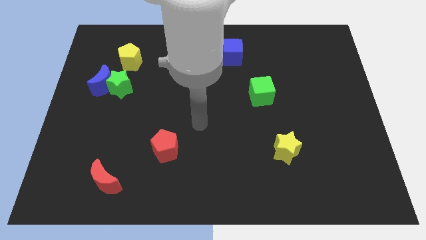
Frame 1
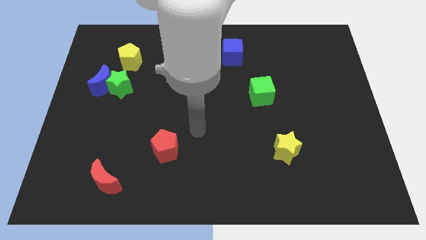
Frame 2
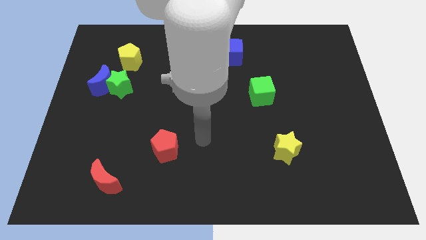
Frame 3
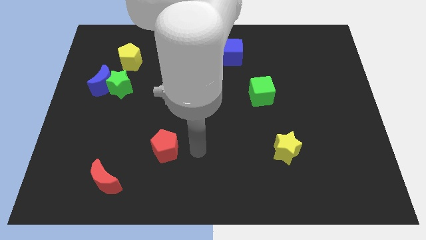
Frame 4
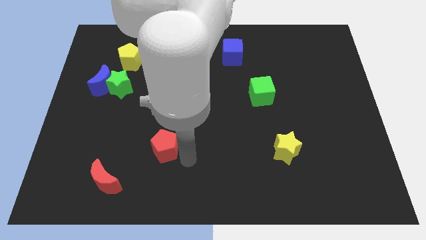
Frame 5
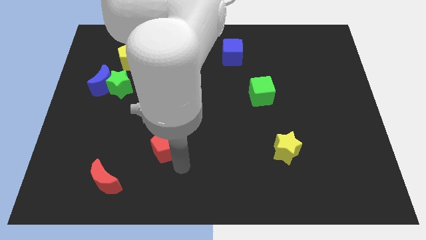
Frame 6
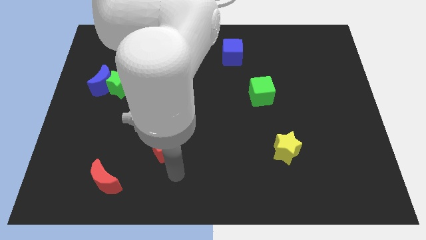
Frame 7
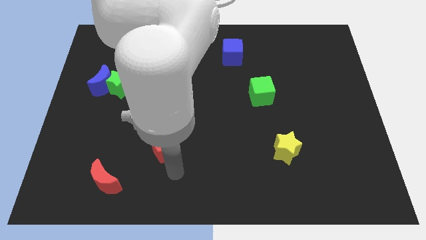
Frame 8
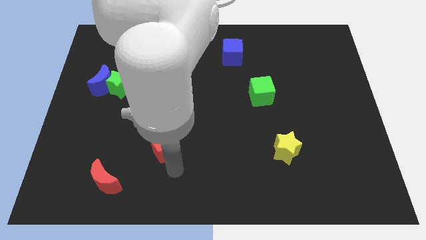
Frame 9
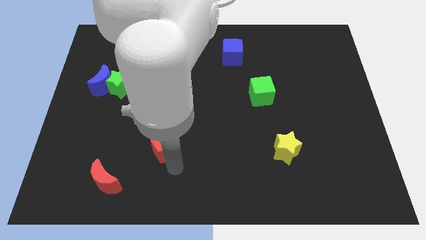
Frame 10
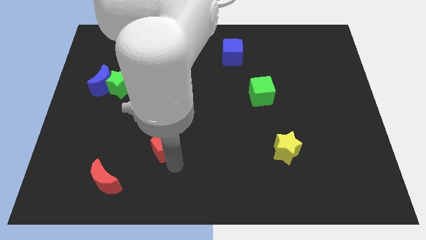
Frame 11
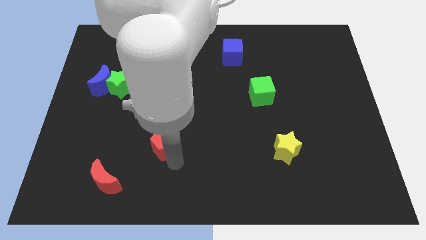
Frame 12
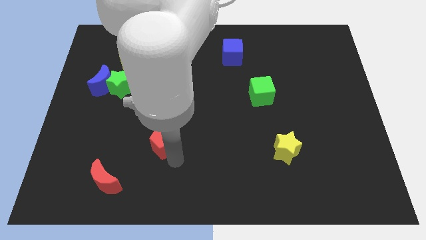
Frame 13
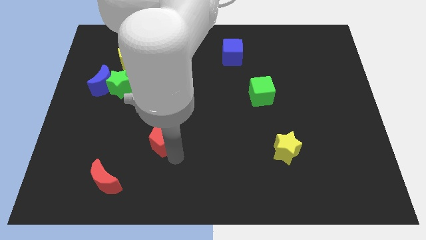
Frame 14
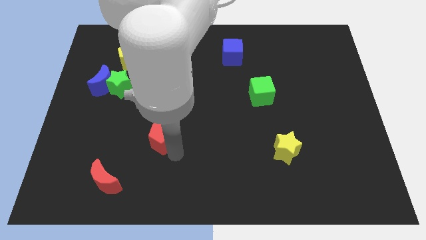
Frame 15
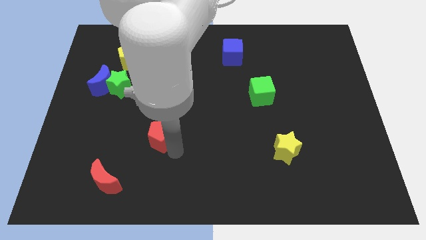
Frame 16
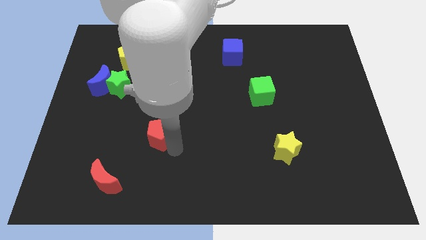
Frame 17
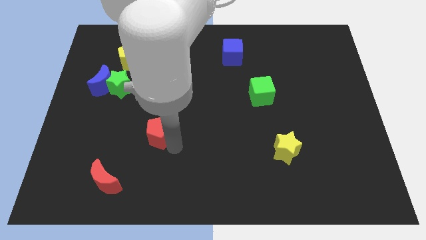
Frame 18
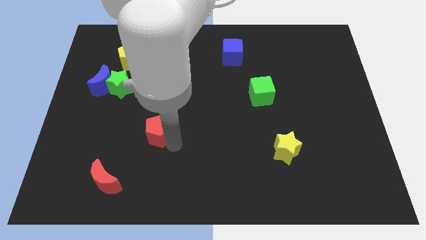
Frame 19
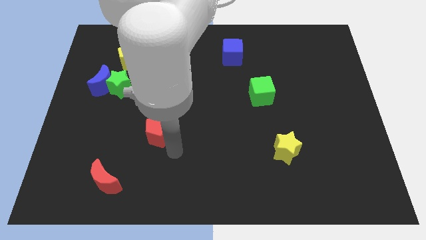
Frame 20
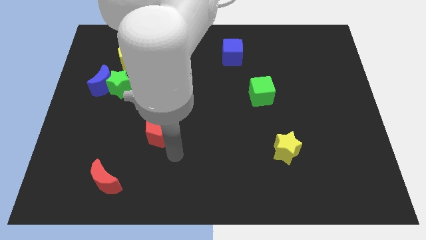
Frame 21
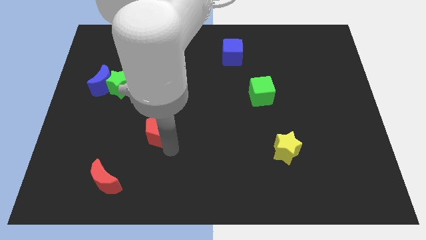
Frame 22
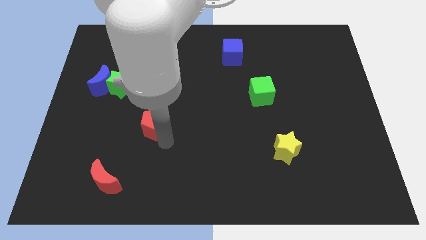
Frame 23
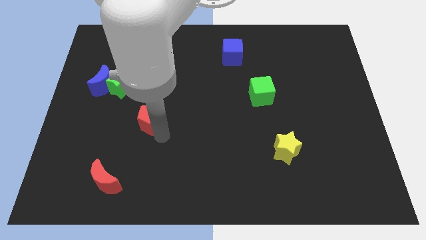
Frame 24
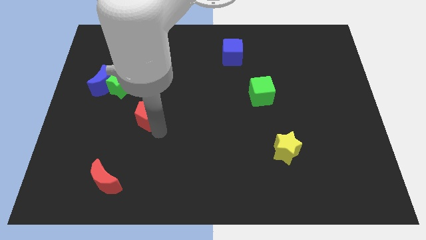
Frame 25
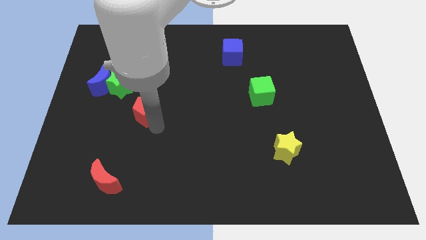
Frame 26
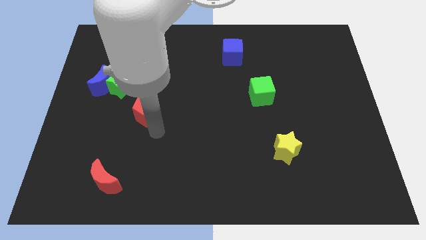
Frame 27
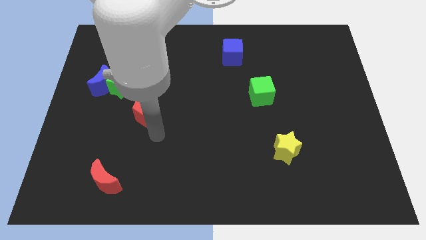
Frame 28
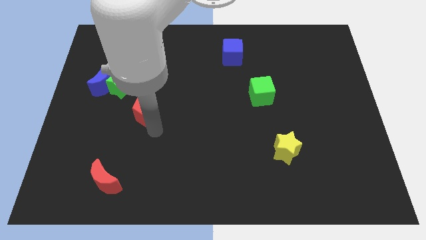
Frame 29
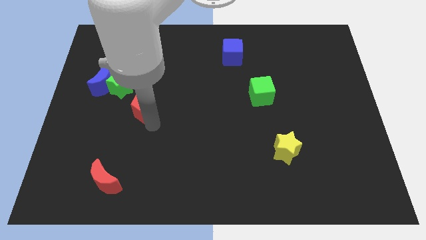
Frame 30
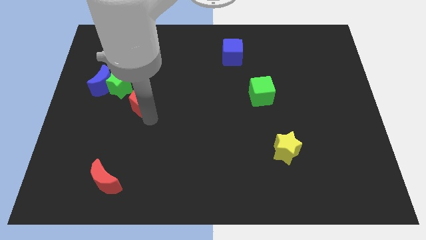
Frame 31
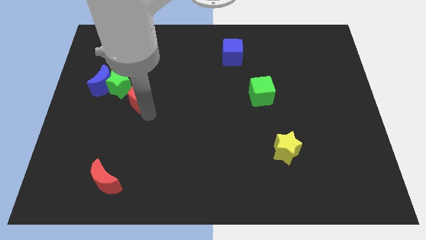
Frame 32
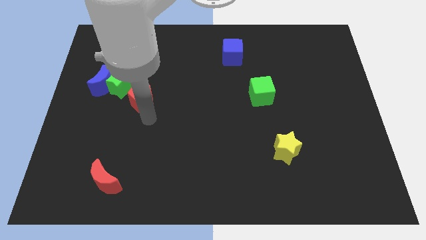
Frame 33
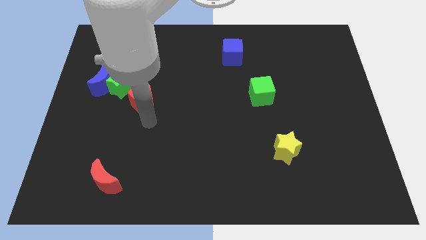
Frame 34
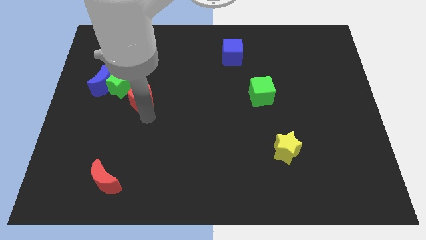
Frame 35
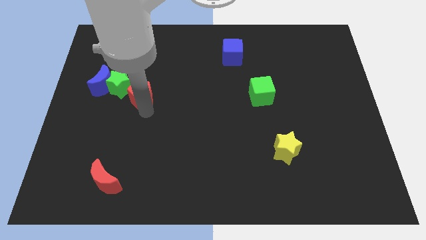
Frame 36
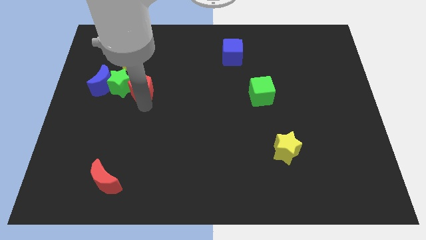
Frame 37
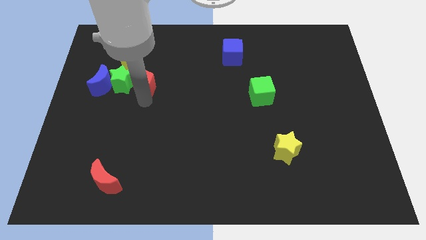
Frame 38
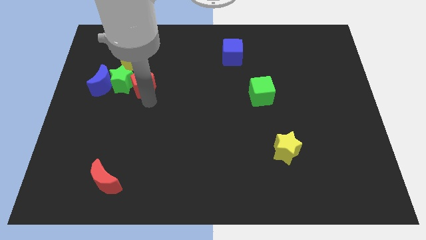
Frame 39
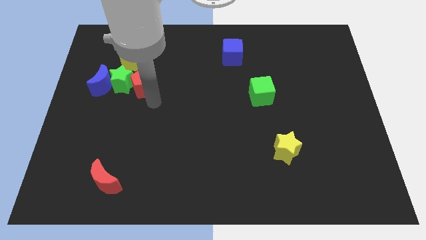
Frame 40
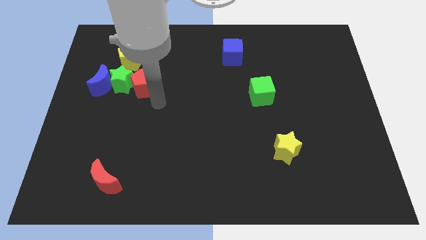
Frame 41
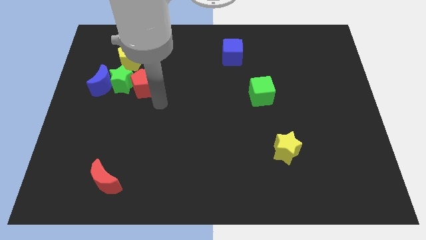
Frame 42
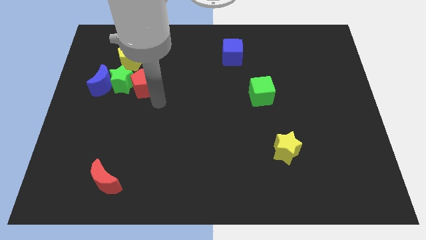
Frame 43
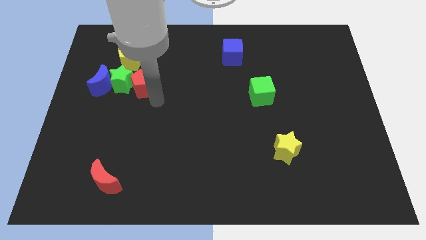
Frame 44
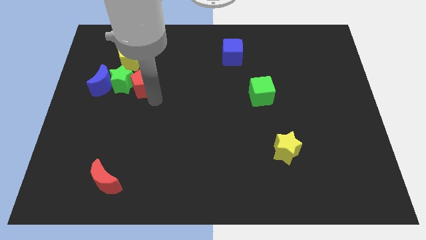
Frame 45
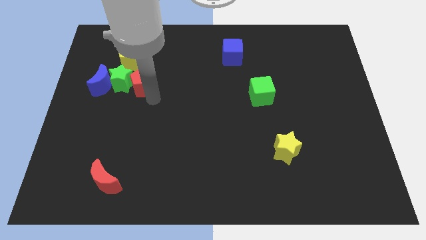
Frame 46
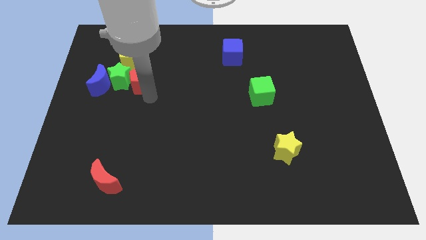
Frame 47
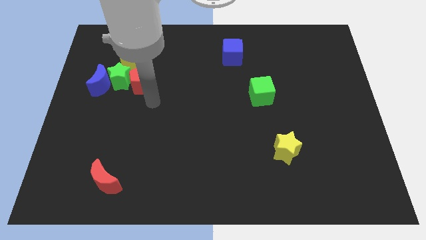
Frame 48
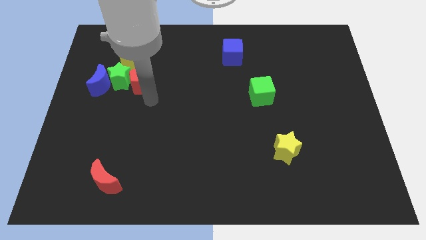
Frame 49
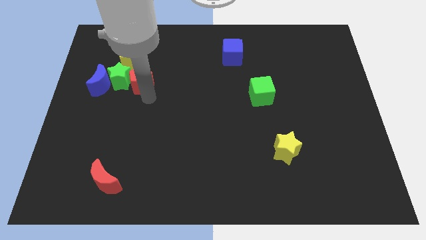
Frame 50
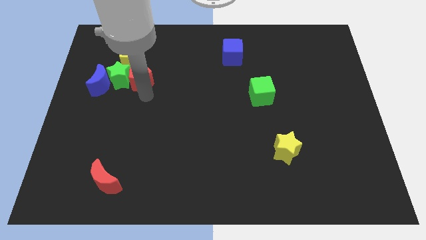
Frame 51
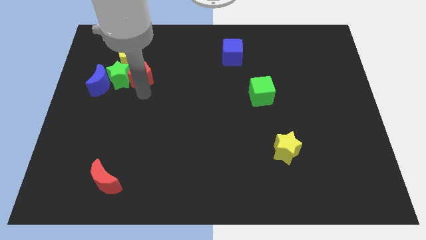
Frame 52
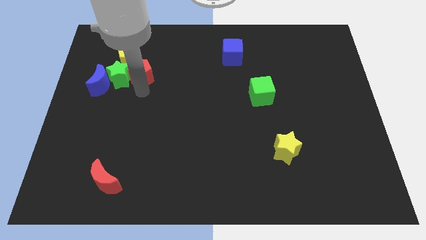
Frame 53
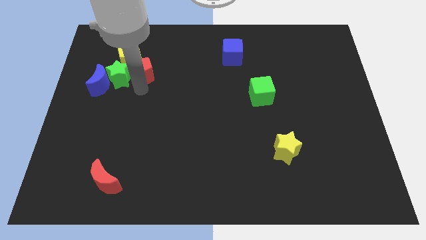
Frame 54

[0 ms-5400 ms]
push the red pentagon to the yellow pentagon

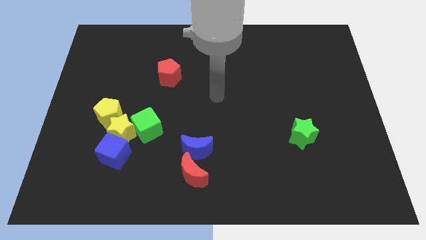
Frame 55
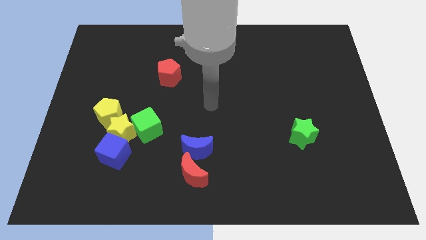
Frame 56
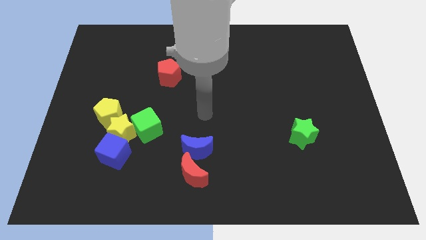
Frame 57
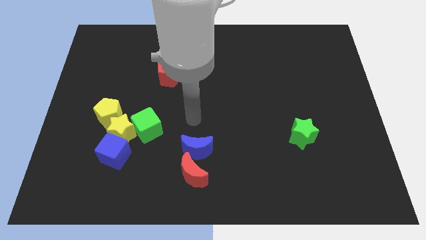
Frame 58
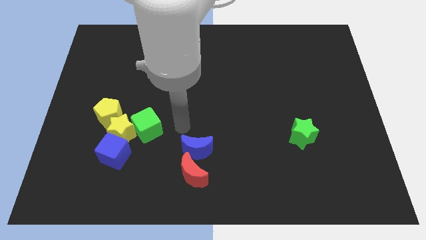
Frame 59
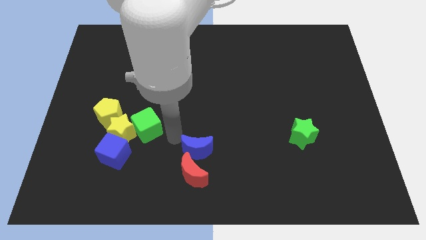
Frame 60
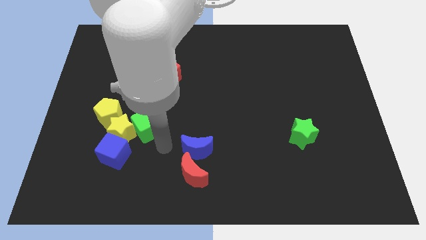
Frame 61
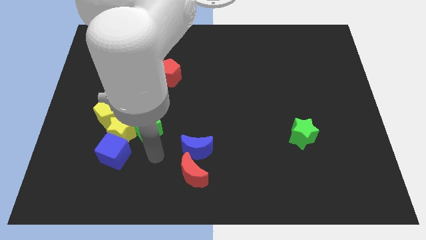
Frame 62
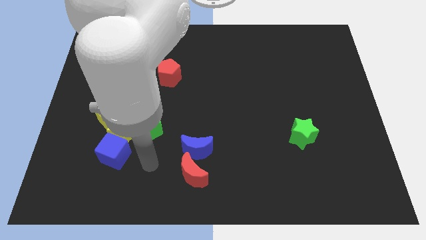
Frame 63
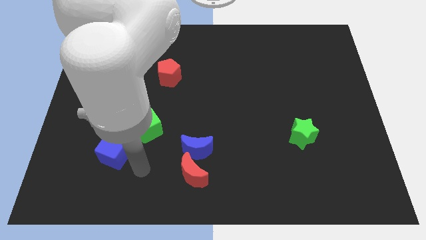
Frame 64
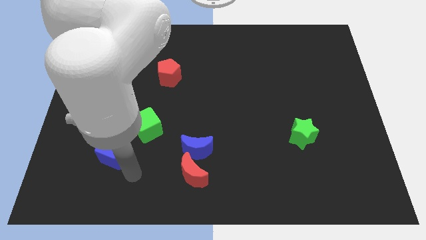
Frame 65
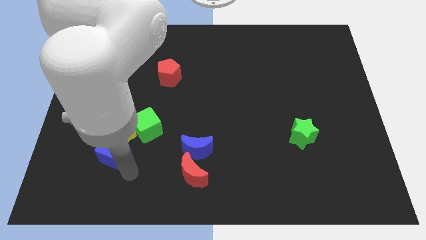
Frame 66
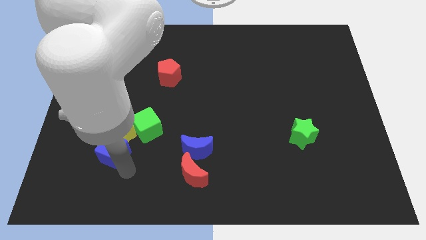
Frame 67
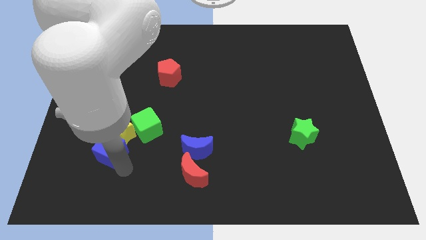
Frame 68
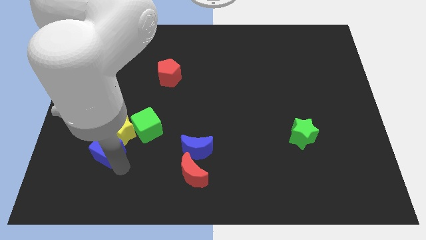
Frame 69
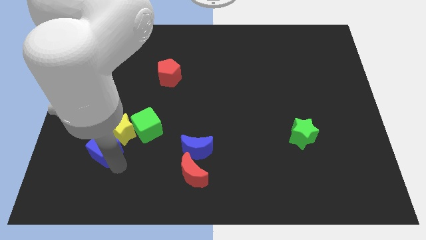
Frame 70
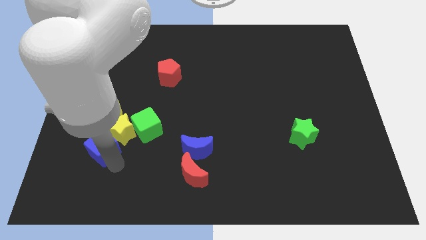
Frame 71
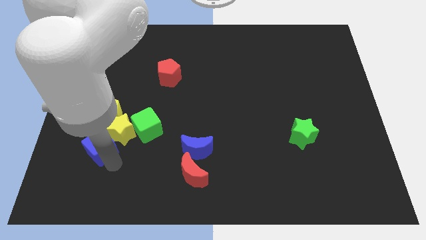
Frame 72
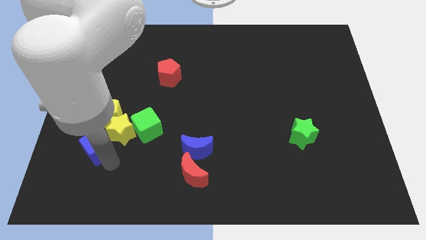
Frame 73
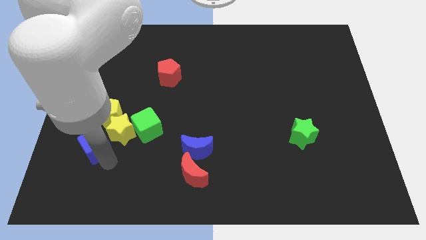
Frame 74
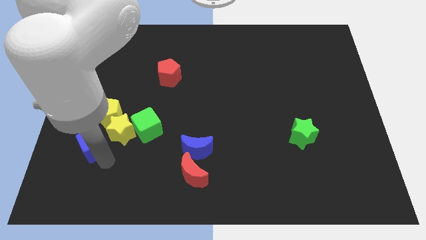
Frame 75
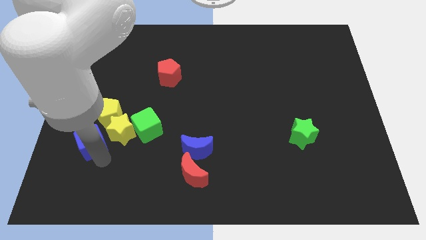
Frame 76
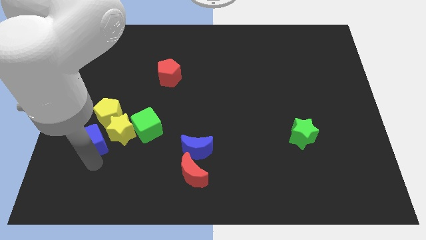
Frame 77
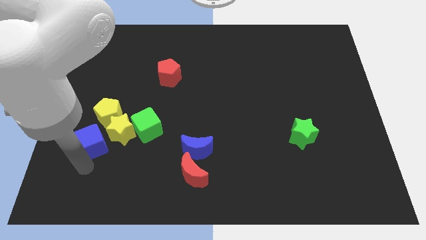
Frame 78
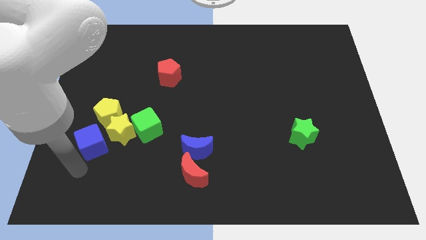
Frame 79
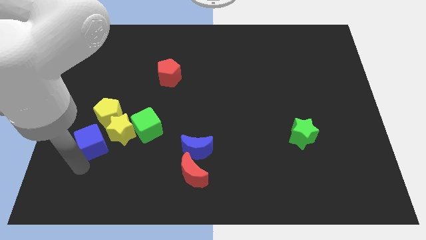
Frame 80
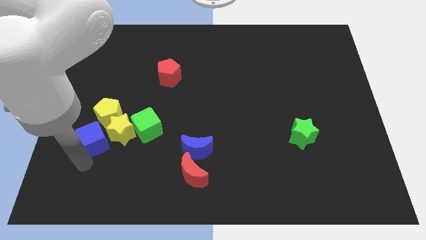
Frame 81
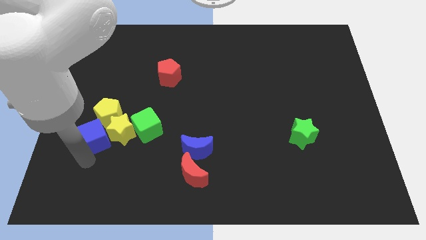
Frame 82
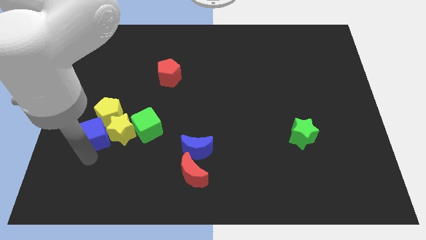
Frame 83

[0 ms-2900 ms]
put the blue cube to the yellow pentagon
